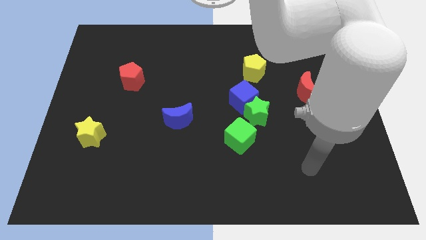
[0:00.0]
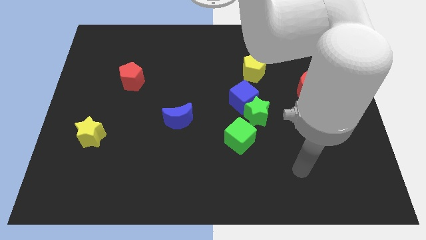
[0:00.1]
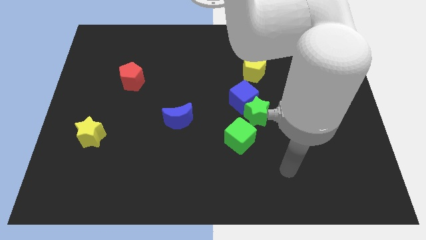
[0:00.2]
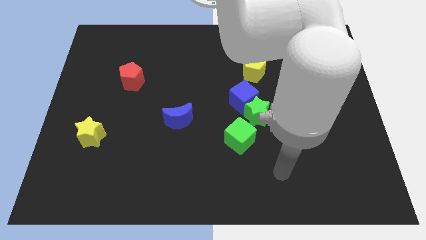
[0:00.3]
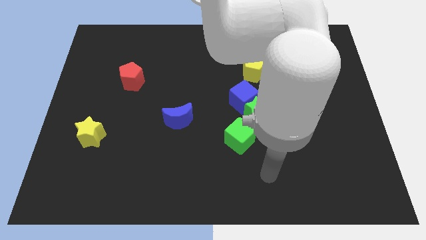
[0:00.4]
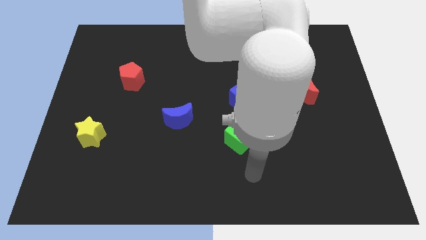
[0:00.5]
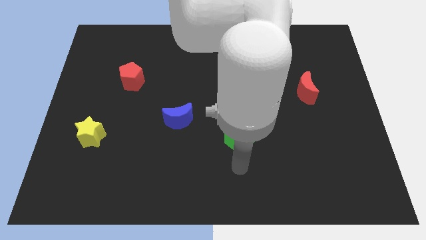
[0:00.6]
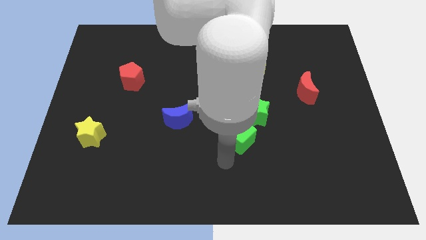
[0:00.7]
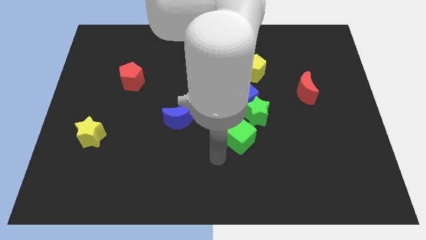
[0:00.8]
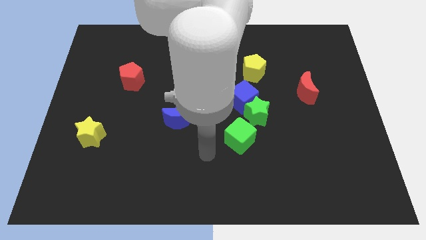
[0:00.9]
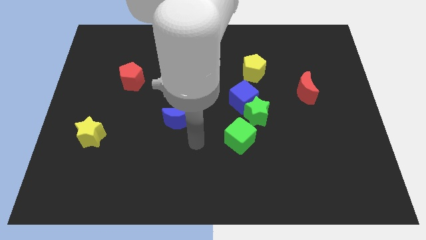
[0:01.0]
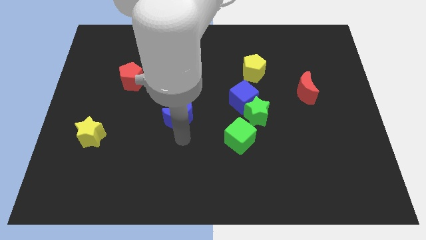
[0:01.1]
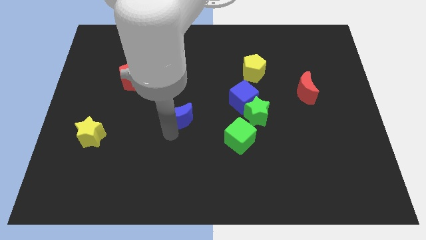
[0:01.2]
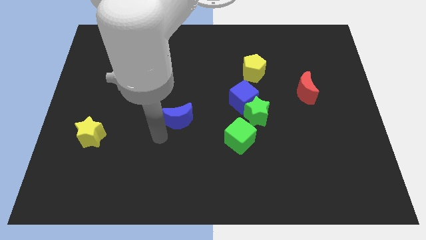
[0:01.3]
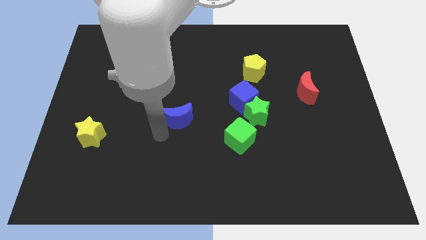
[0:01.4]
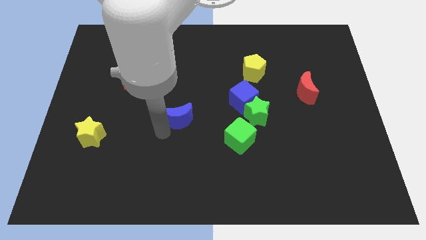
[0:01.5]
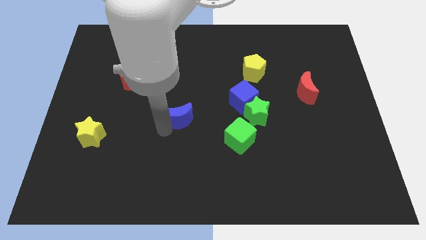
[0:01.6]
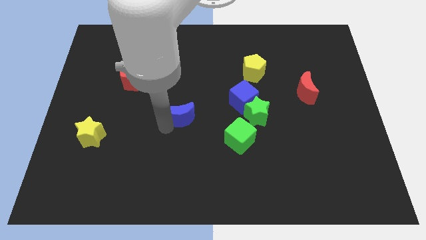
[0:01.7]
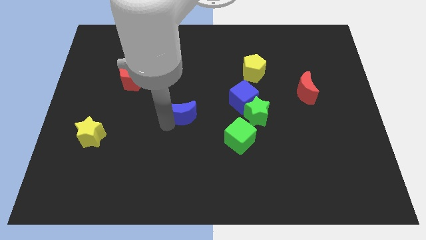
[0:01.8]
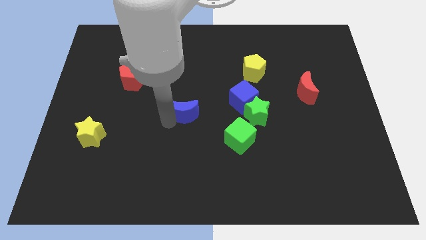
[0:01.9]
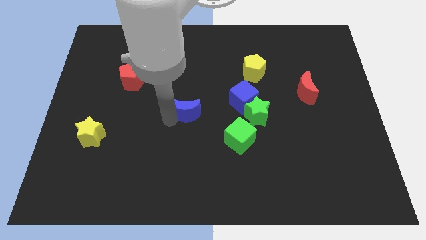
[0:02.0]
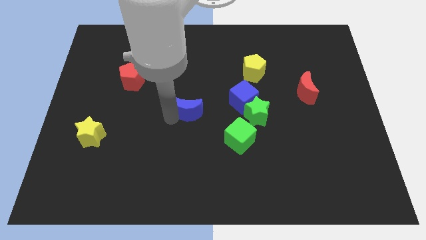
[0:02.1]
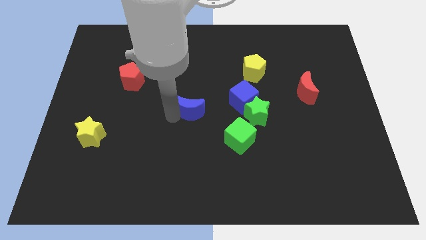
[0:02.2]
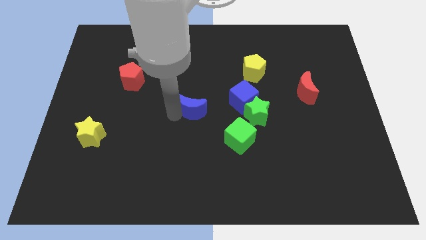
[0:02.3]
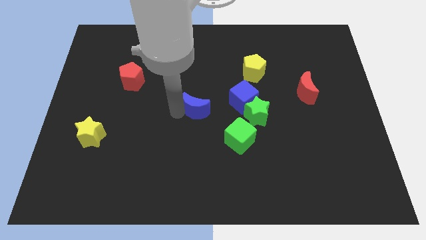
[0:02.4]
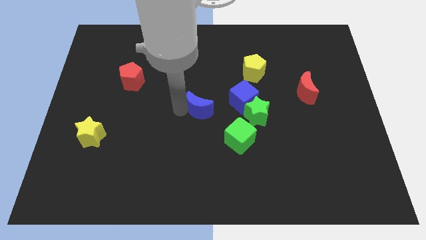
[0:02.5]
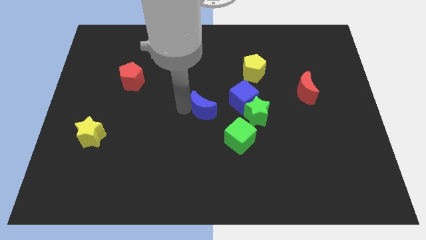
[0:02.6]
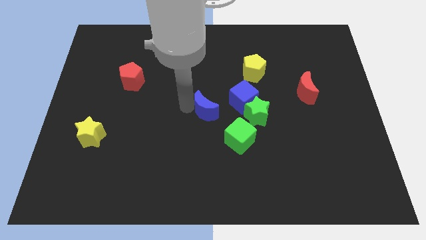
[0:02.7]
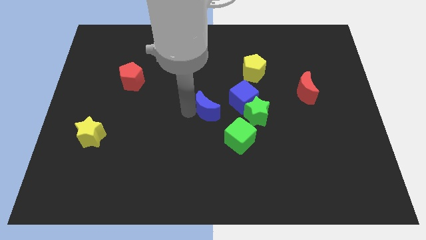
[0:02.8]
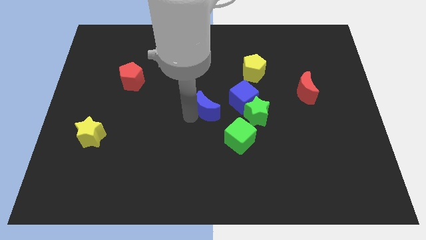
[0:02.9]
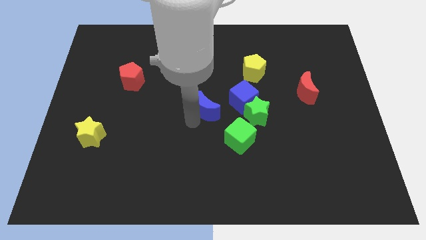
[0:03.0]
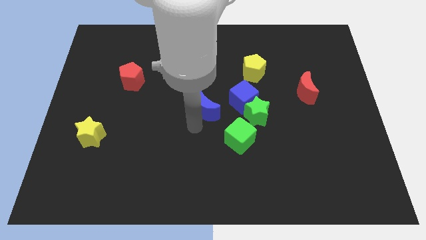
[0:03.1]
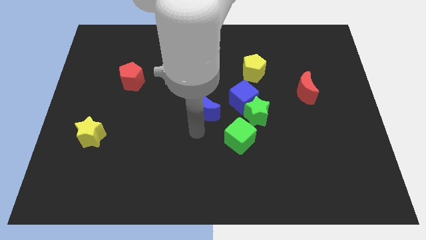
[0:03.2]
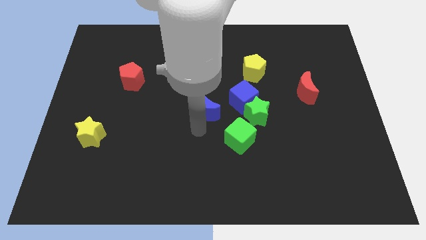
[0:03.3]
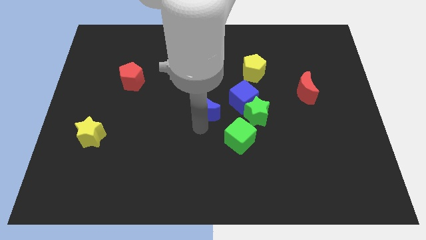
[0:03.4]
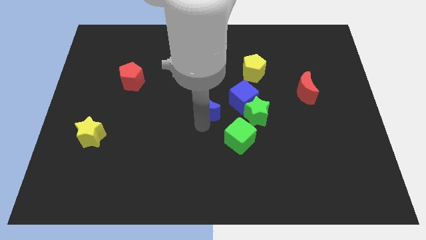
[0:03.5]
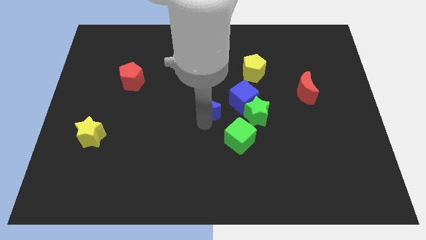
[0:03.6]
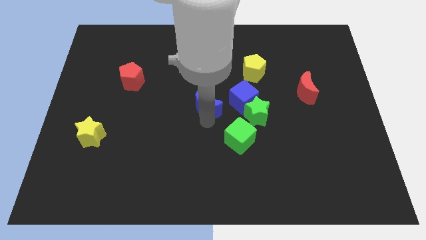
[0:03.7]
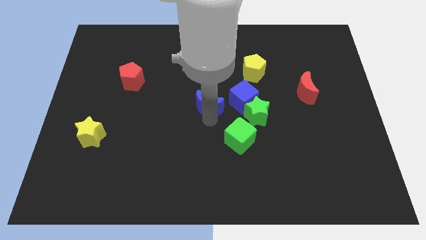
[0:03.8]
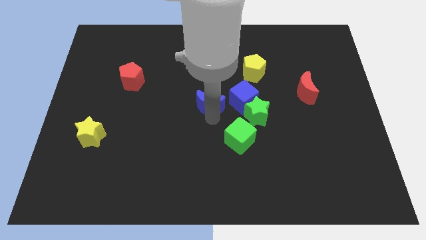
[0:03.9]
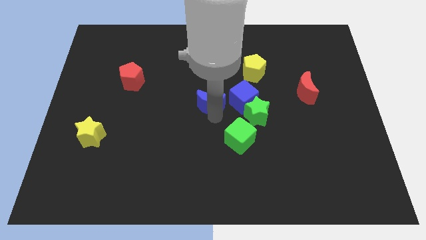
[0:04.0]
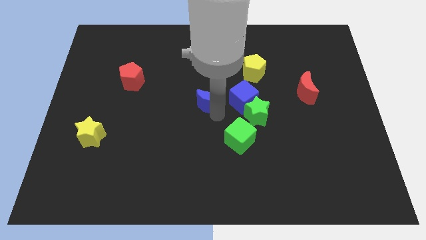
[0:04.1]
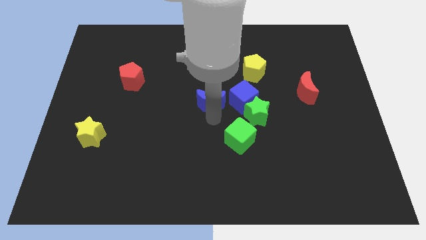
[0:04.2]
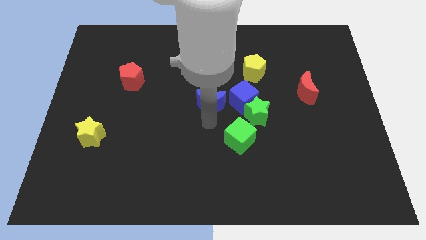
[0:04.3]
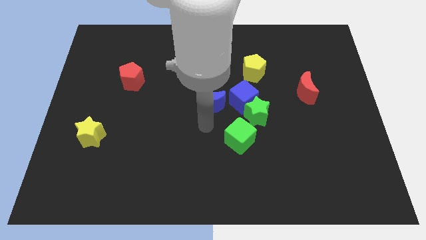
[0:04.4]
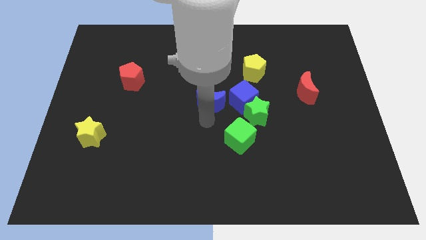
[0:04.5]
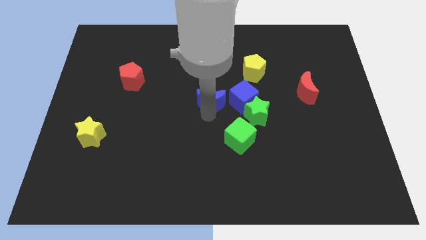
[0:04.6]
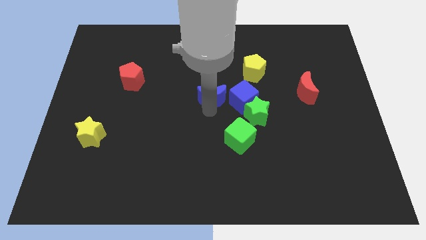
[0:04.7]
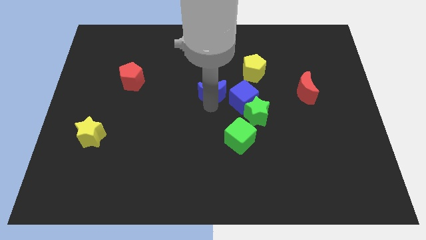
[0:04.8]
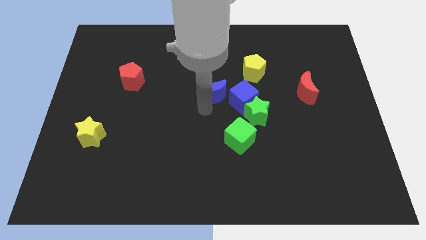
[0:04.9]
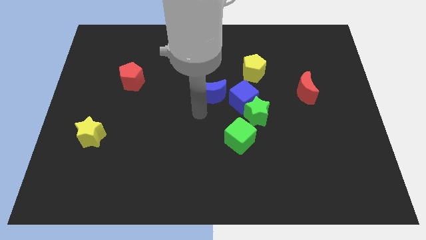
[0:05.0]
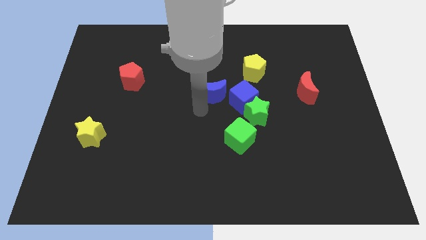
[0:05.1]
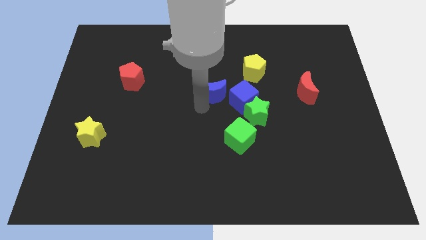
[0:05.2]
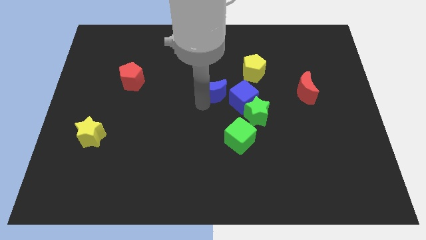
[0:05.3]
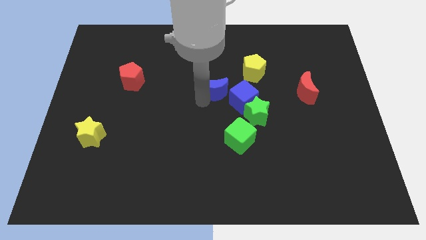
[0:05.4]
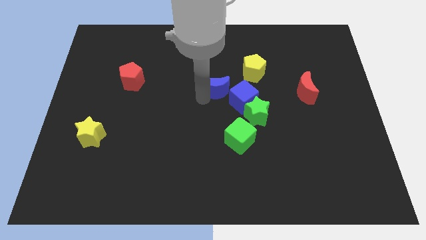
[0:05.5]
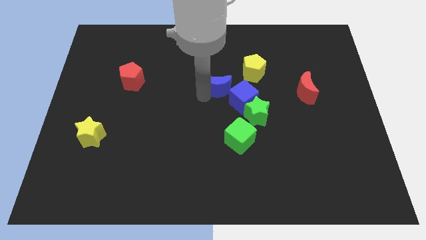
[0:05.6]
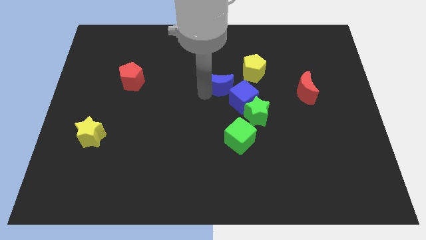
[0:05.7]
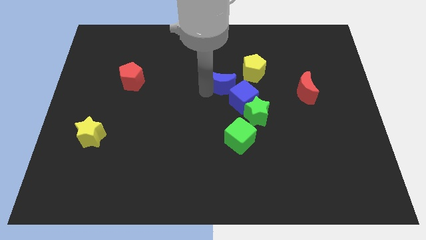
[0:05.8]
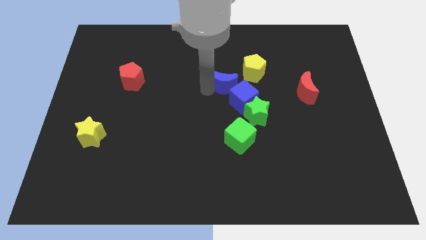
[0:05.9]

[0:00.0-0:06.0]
push the blue moon above the blue cube

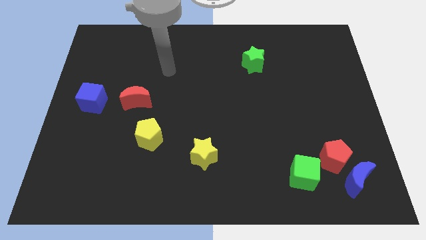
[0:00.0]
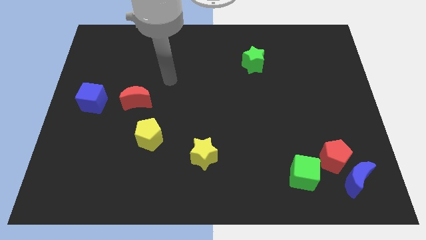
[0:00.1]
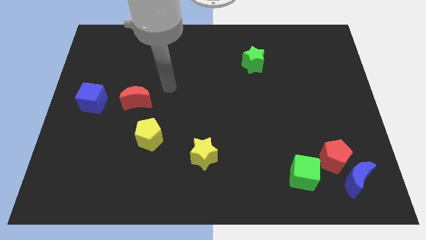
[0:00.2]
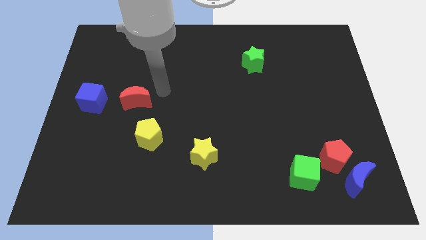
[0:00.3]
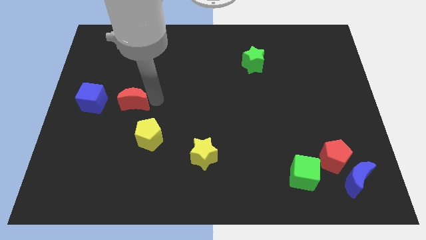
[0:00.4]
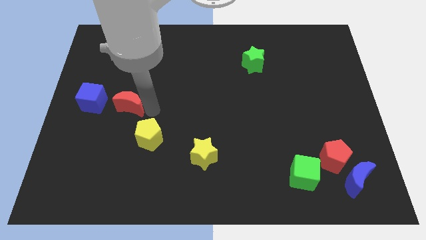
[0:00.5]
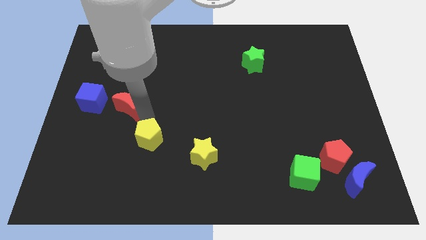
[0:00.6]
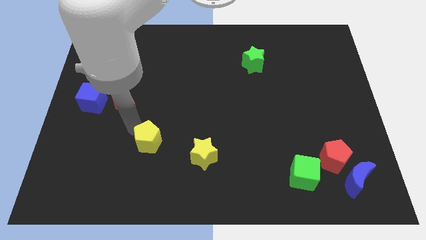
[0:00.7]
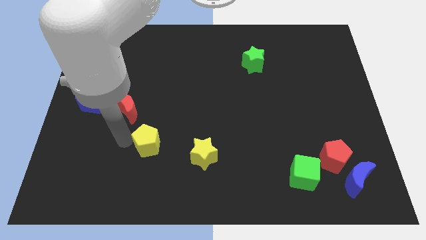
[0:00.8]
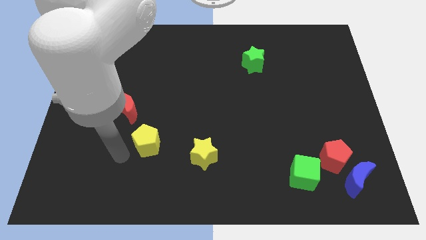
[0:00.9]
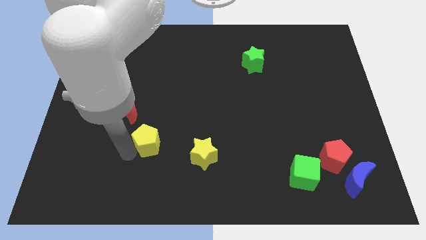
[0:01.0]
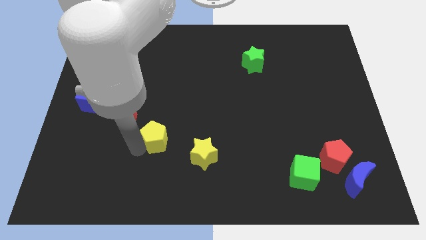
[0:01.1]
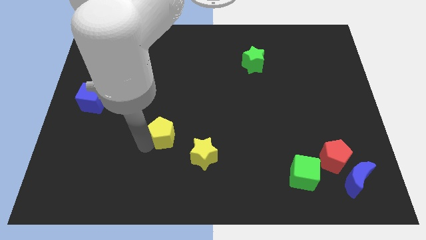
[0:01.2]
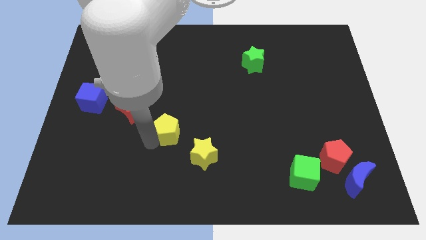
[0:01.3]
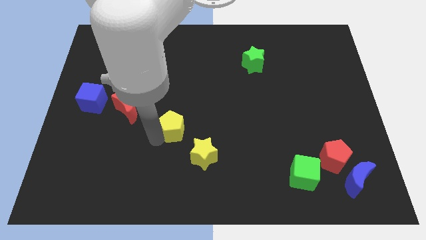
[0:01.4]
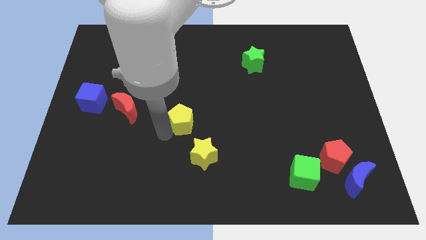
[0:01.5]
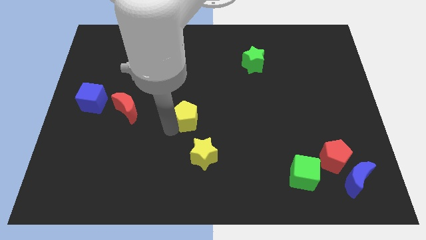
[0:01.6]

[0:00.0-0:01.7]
slide the yellow pentagon to the top side of the yellow star
